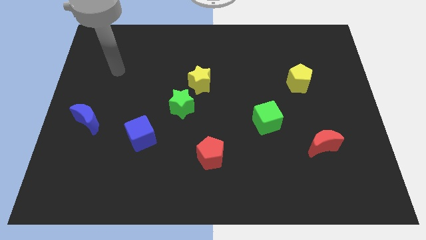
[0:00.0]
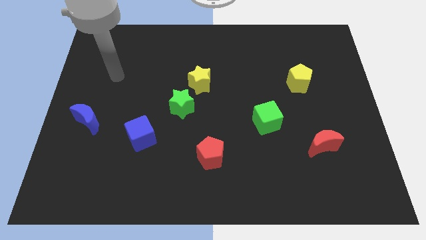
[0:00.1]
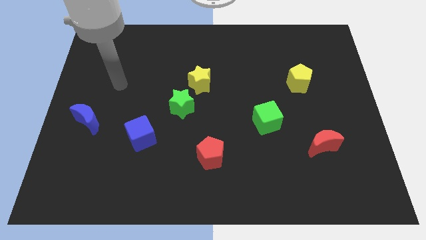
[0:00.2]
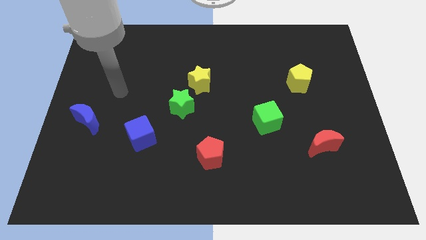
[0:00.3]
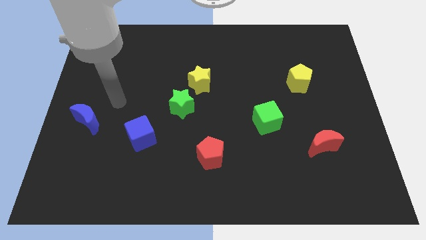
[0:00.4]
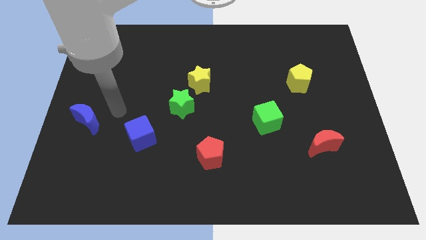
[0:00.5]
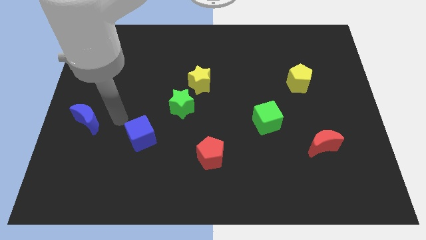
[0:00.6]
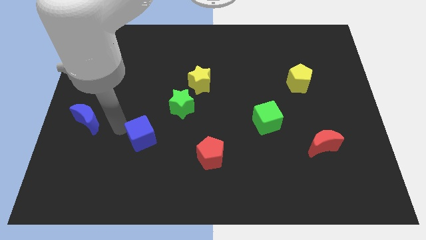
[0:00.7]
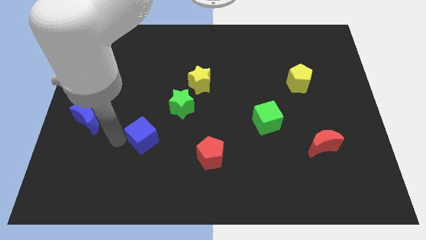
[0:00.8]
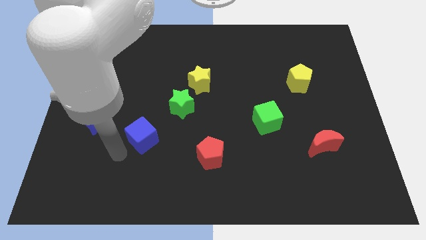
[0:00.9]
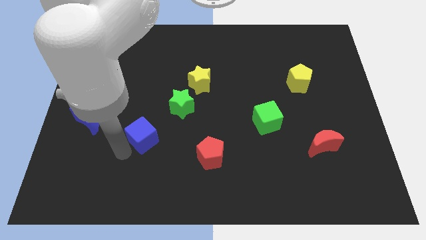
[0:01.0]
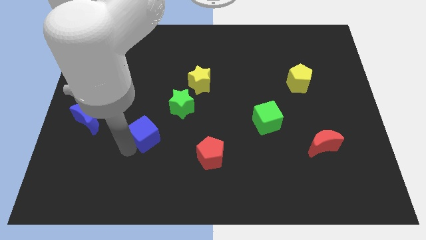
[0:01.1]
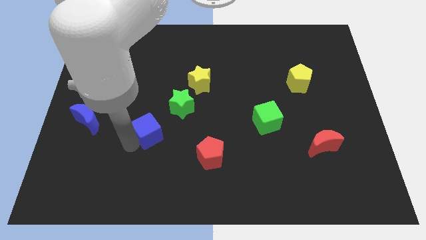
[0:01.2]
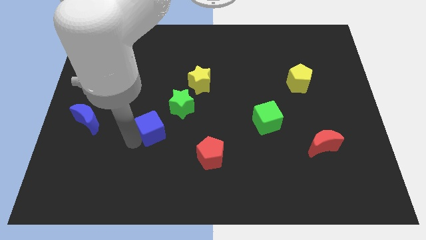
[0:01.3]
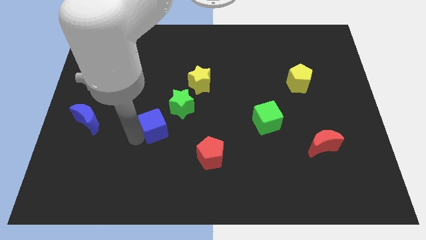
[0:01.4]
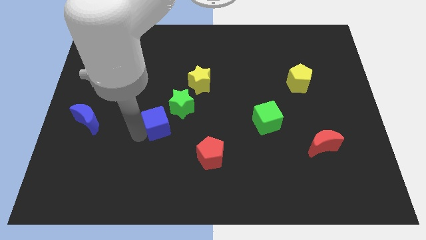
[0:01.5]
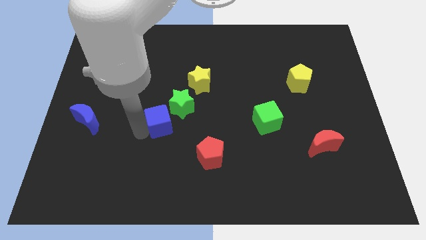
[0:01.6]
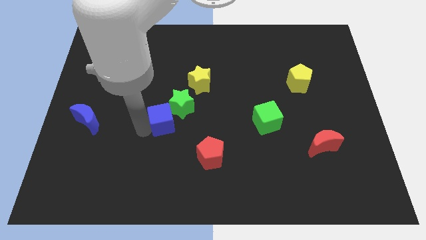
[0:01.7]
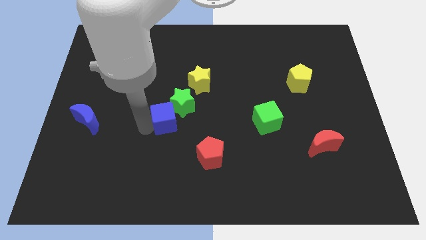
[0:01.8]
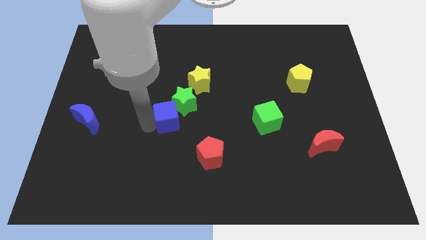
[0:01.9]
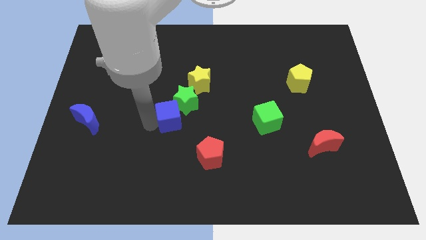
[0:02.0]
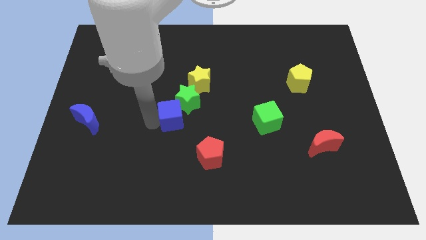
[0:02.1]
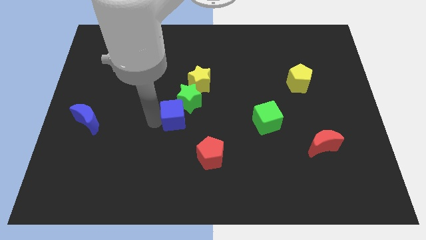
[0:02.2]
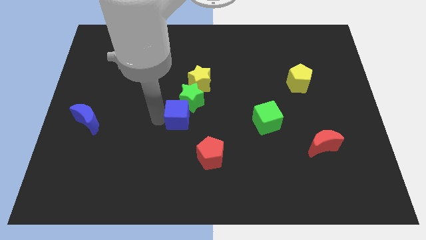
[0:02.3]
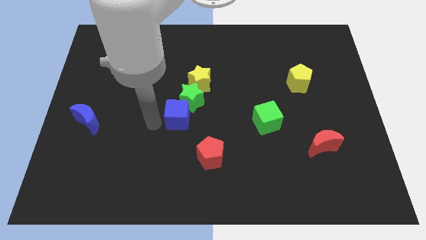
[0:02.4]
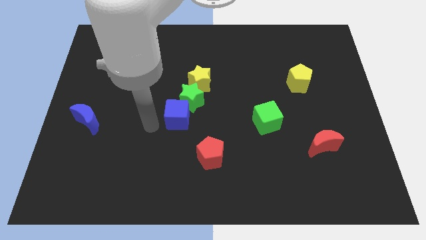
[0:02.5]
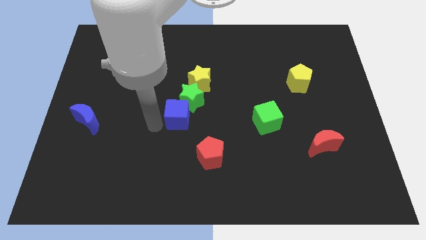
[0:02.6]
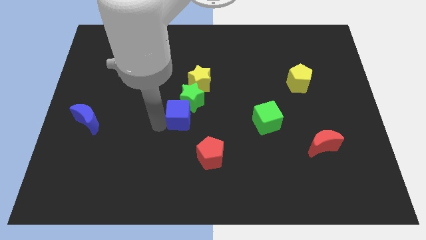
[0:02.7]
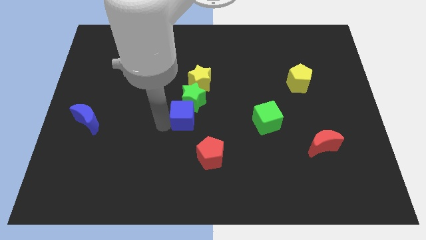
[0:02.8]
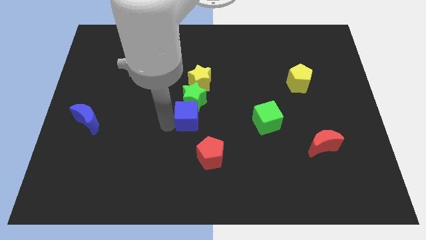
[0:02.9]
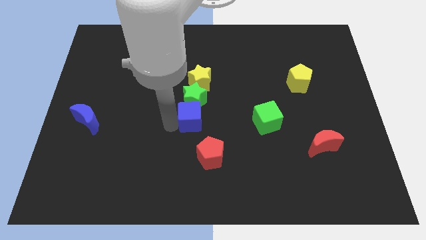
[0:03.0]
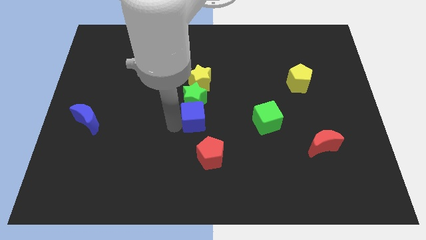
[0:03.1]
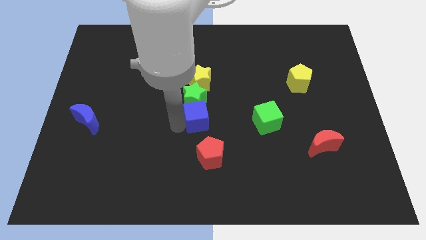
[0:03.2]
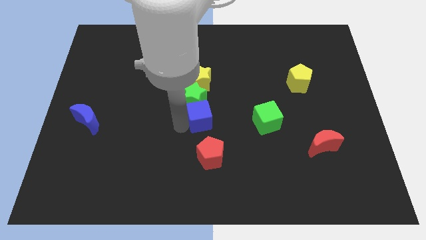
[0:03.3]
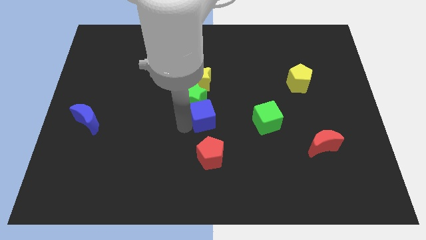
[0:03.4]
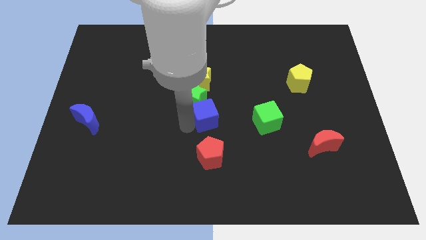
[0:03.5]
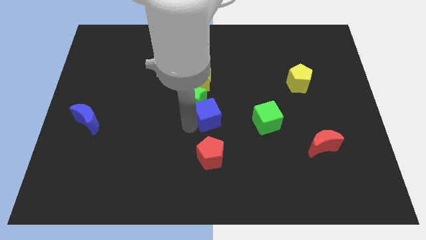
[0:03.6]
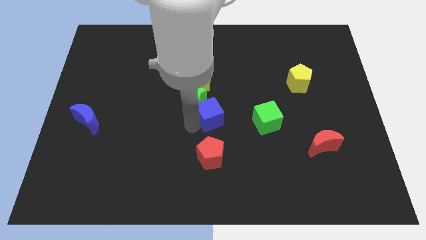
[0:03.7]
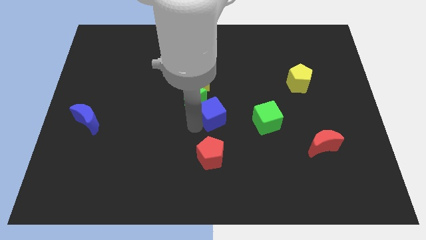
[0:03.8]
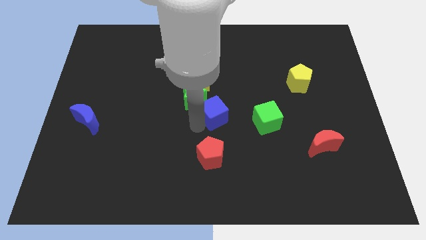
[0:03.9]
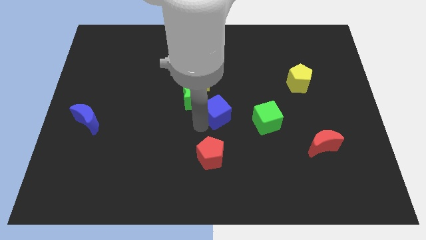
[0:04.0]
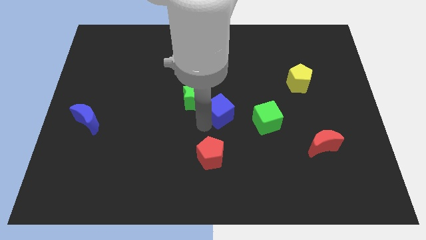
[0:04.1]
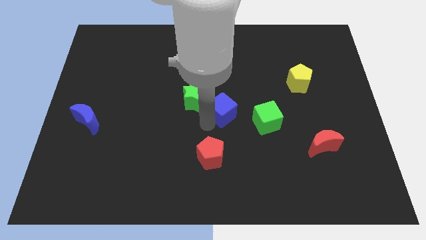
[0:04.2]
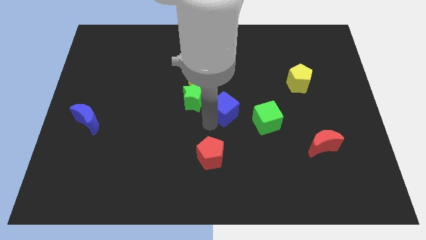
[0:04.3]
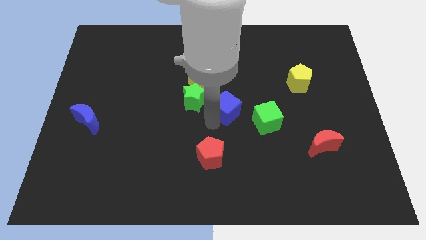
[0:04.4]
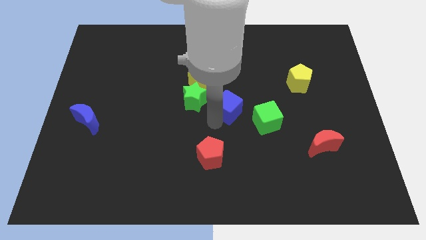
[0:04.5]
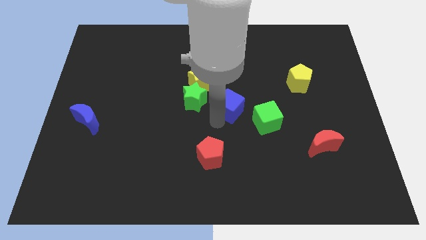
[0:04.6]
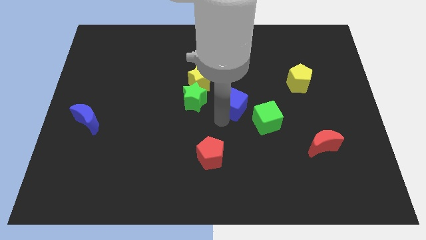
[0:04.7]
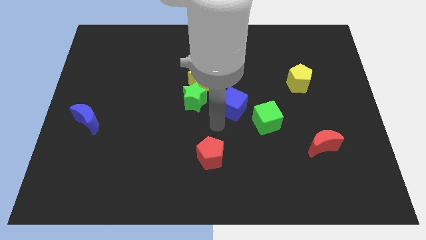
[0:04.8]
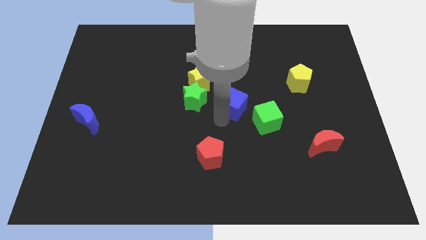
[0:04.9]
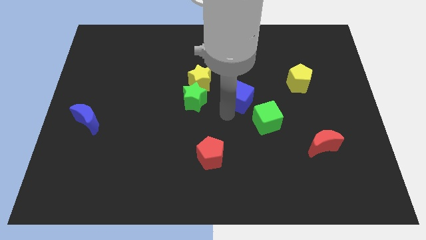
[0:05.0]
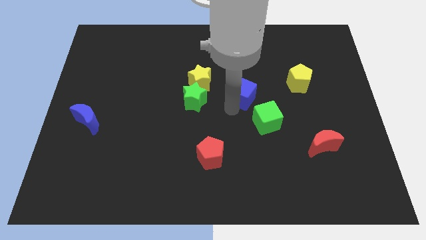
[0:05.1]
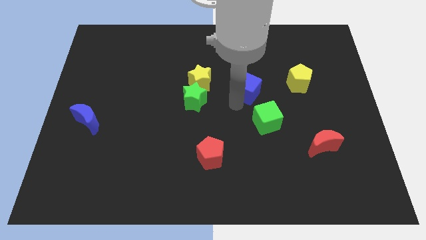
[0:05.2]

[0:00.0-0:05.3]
push the blue cube to the left of the yellow pentagon

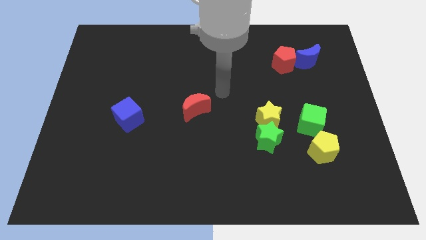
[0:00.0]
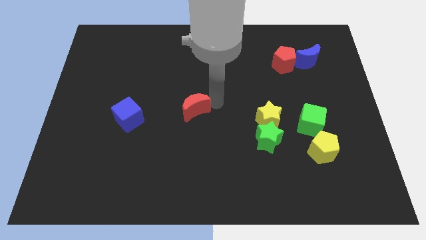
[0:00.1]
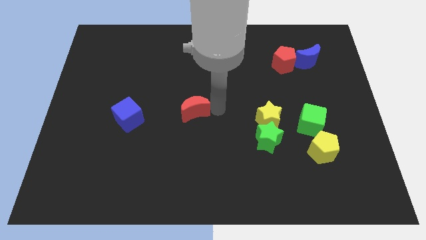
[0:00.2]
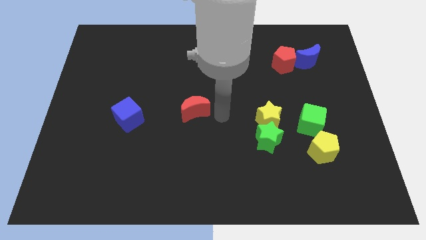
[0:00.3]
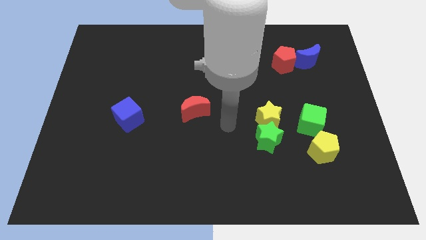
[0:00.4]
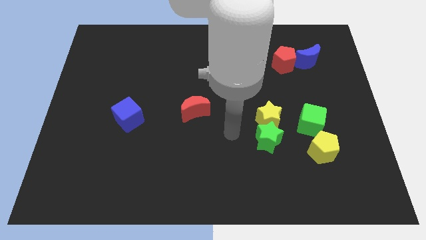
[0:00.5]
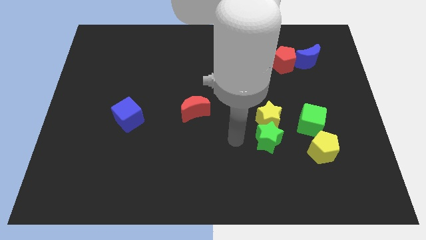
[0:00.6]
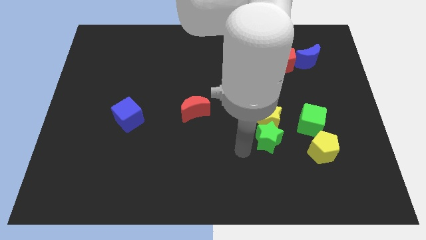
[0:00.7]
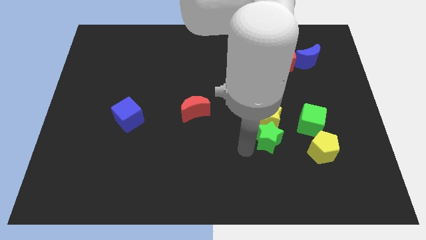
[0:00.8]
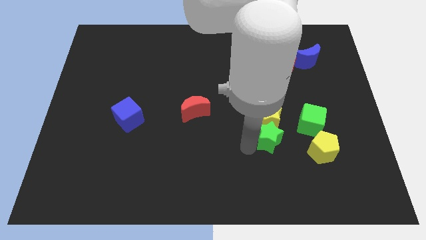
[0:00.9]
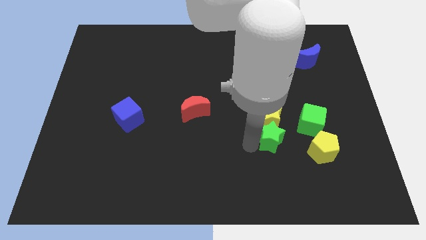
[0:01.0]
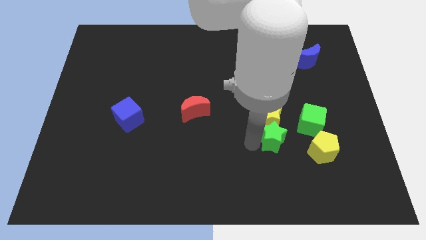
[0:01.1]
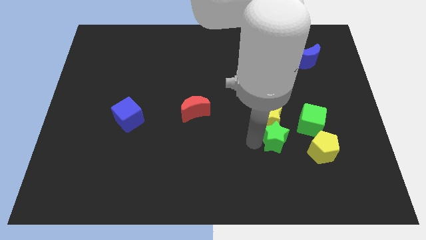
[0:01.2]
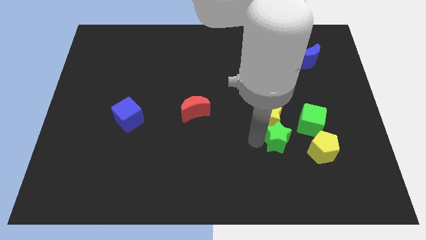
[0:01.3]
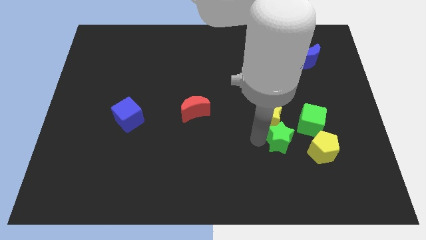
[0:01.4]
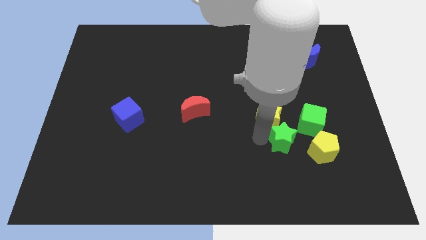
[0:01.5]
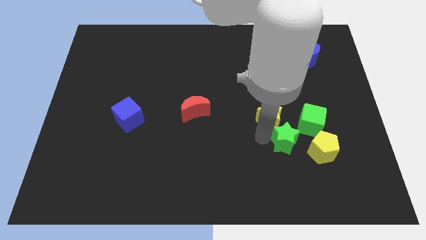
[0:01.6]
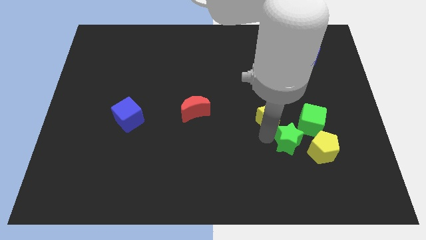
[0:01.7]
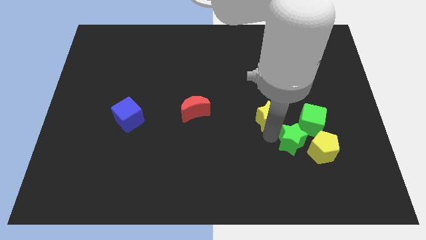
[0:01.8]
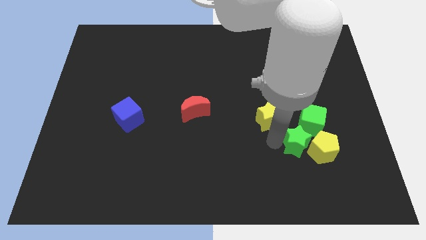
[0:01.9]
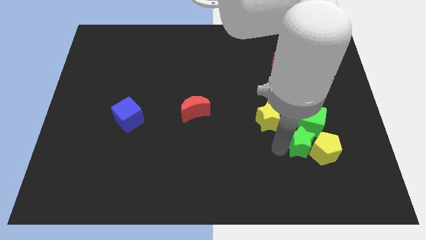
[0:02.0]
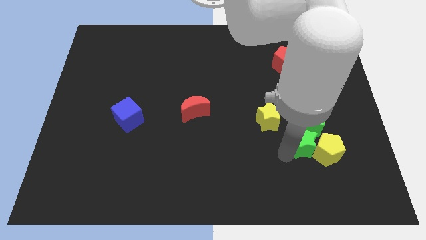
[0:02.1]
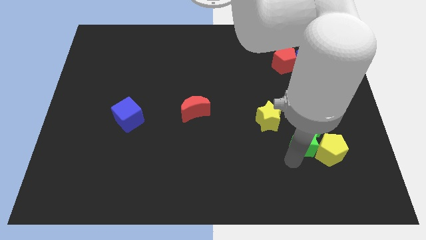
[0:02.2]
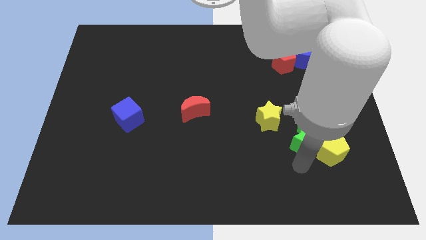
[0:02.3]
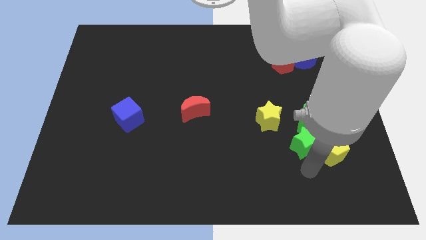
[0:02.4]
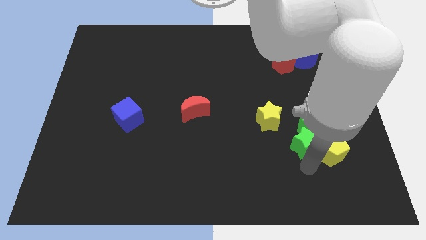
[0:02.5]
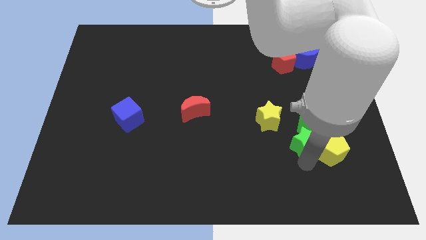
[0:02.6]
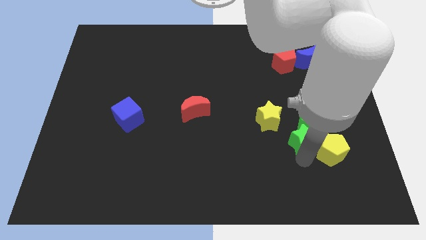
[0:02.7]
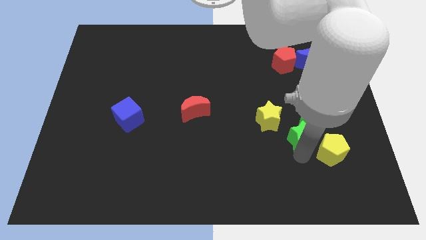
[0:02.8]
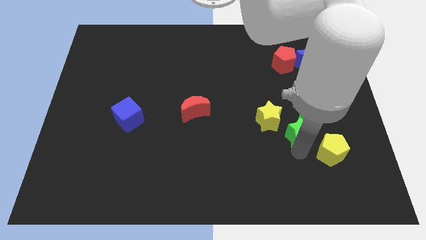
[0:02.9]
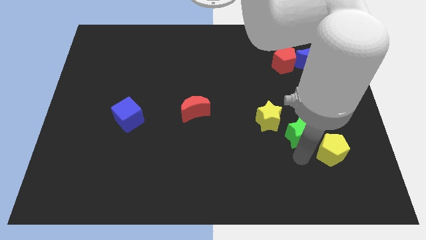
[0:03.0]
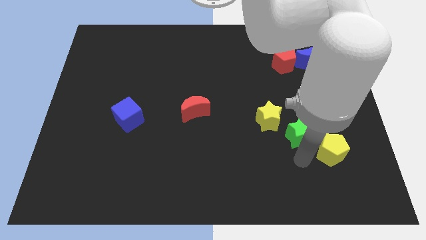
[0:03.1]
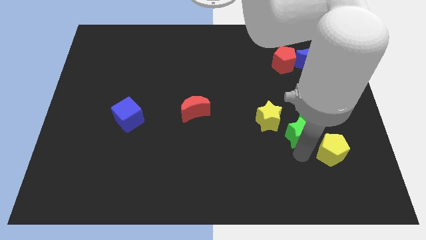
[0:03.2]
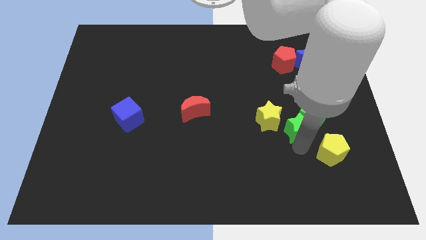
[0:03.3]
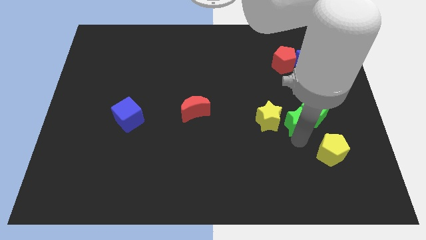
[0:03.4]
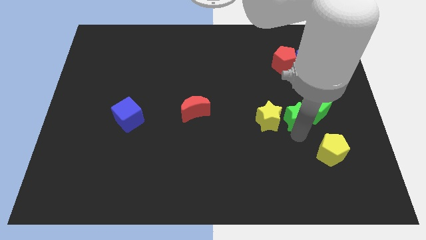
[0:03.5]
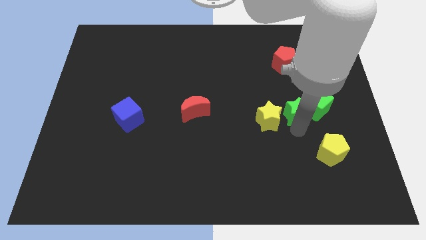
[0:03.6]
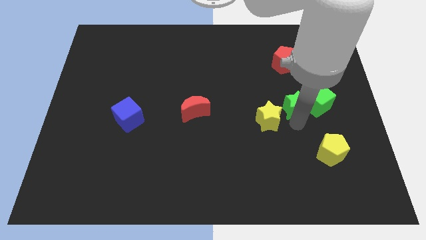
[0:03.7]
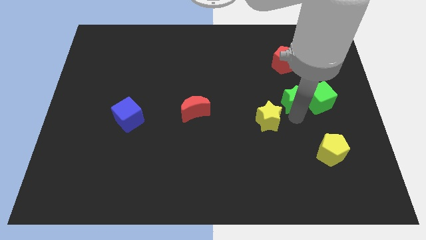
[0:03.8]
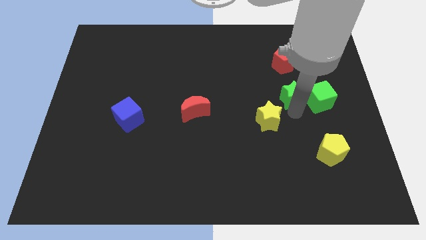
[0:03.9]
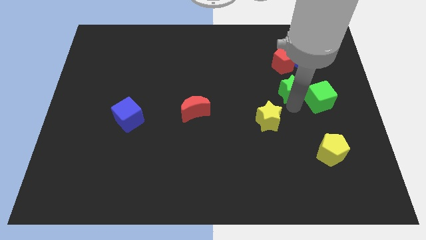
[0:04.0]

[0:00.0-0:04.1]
push the green star diagonally down and to the left of the blue moon
